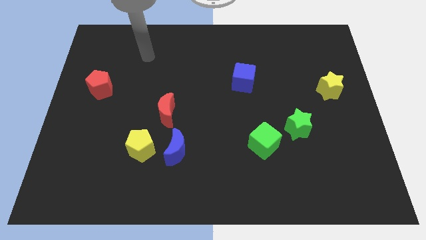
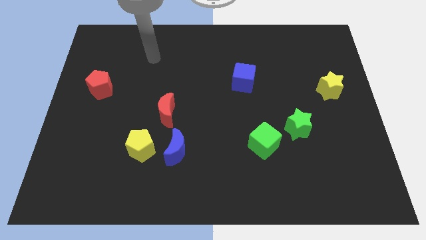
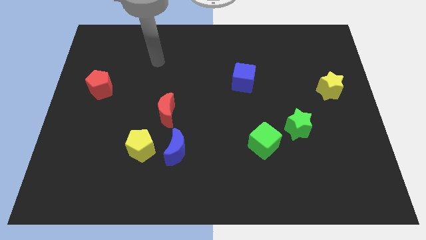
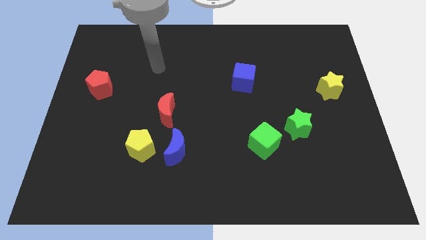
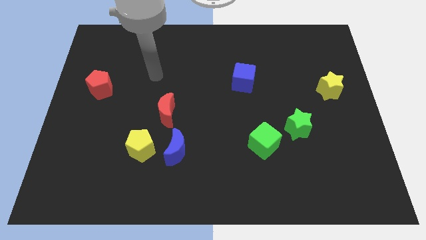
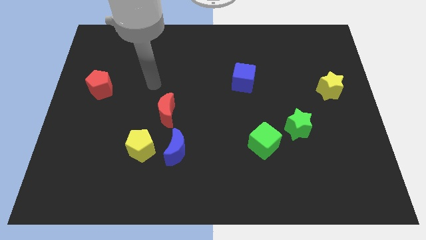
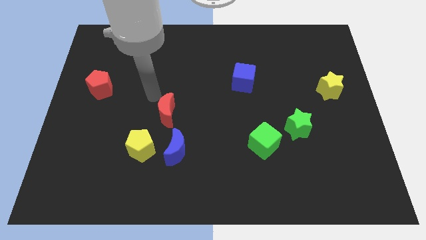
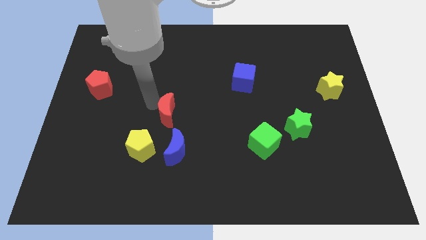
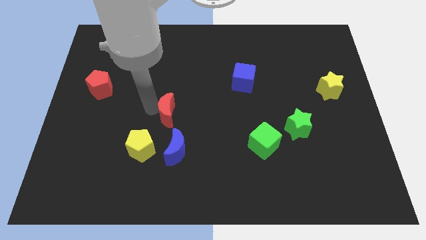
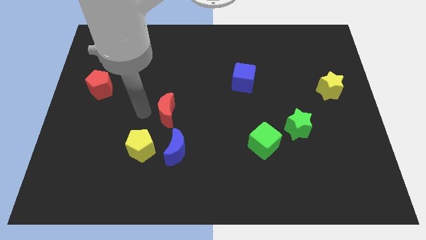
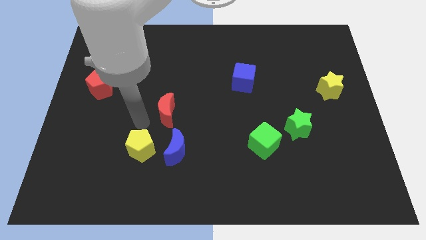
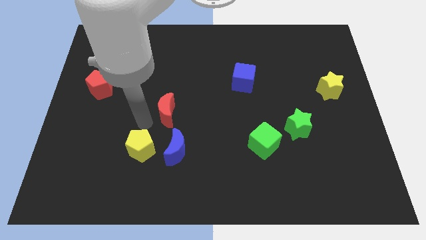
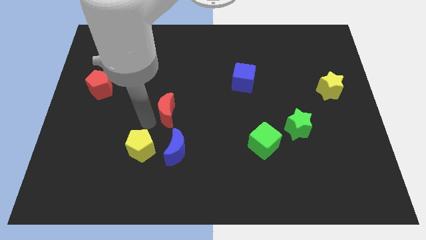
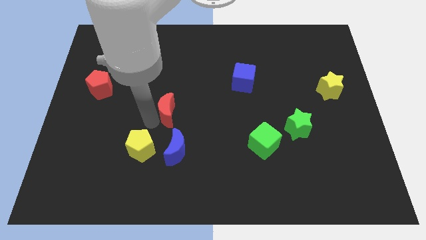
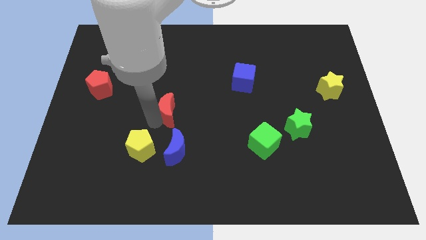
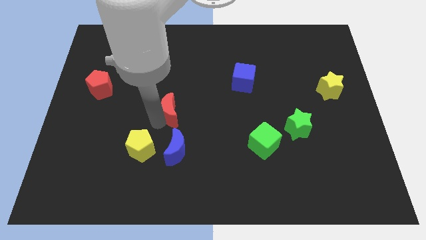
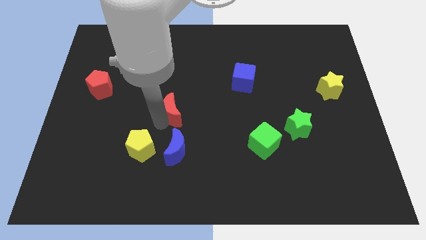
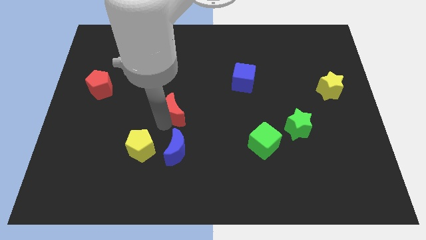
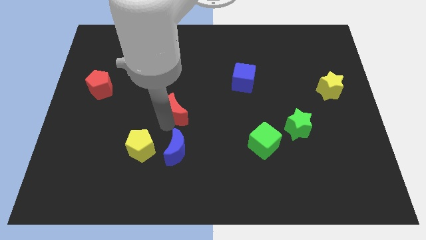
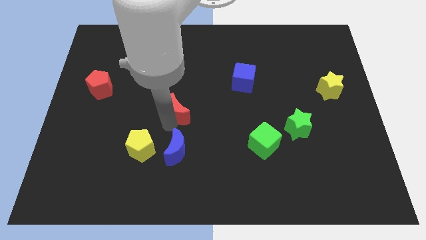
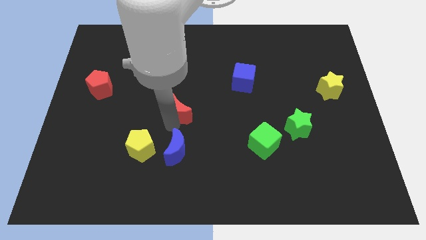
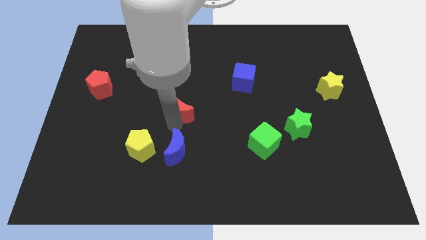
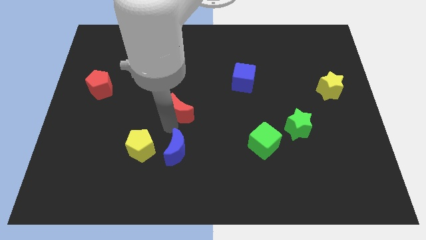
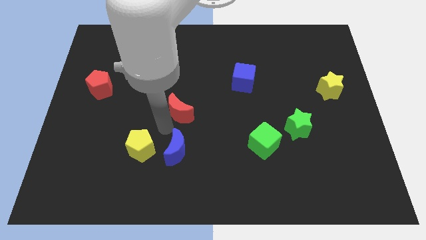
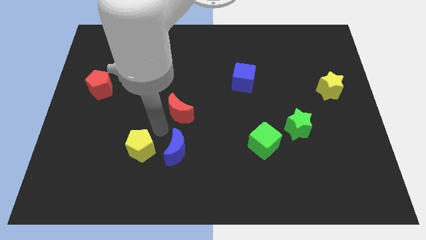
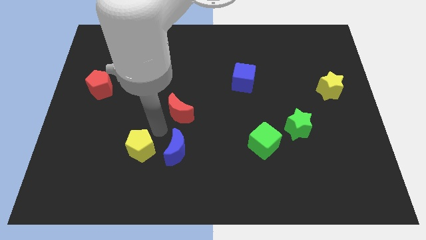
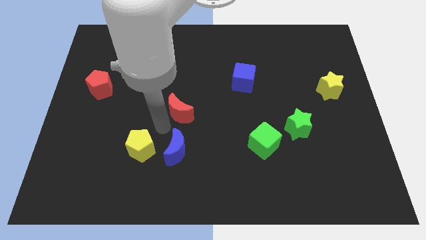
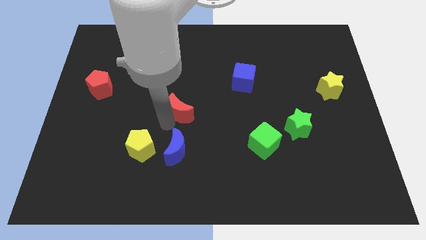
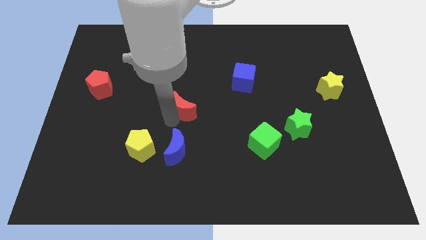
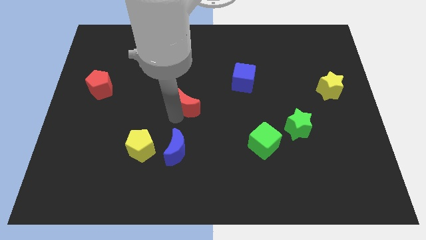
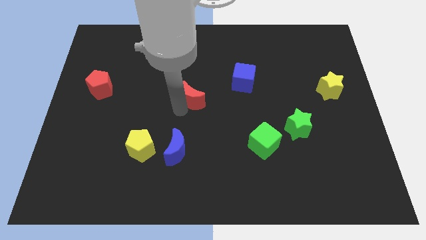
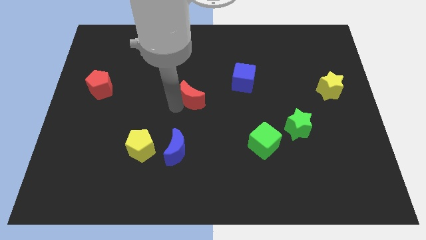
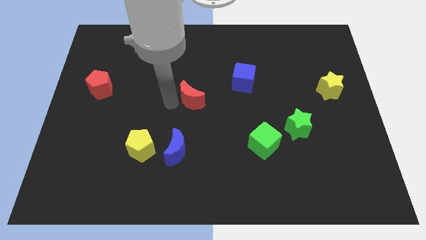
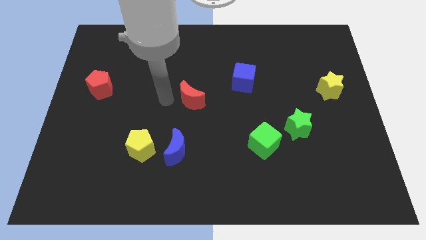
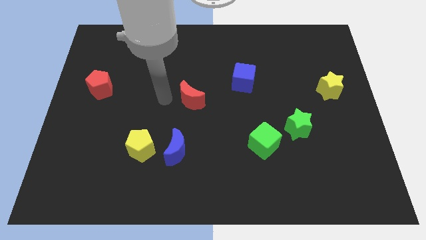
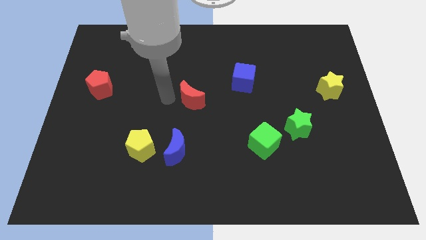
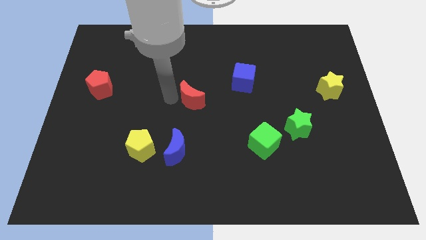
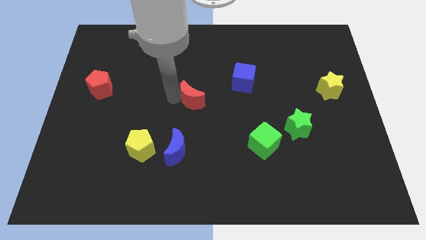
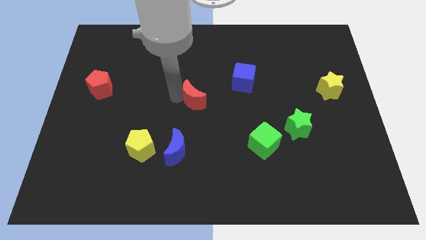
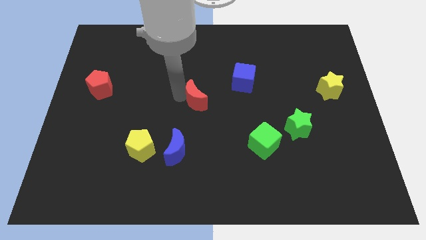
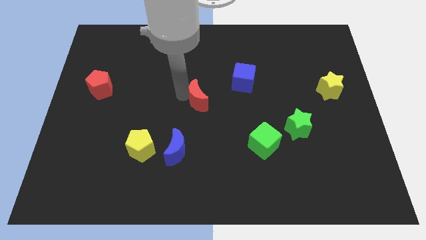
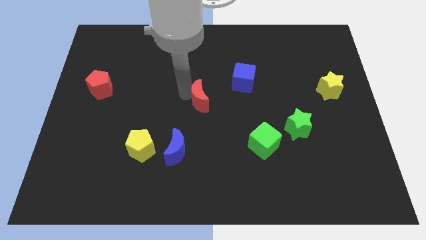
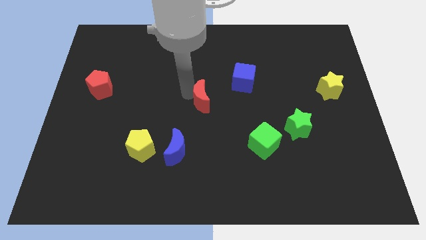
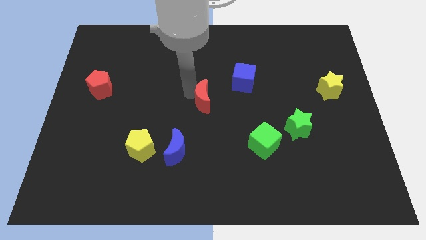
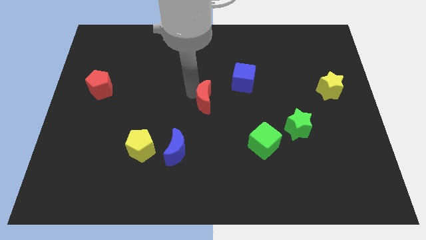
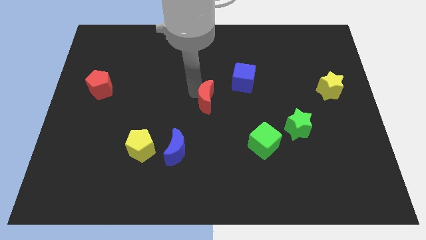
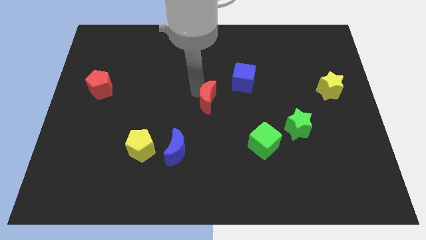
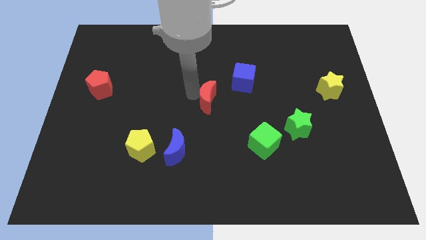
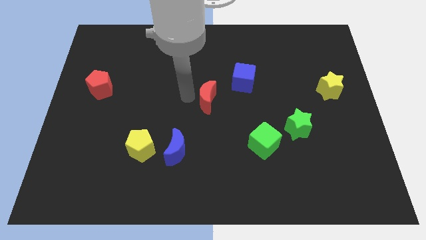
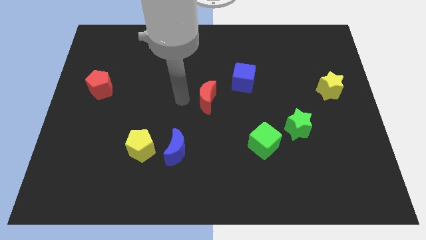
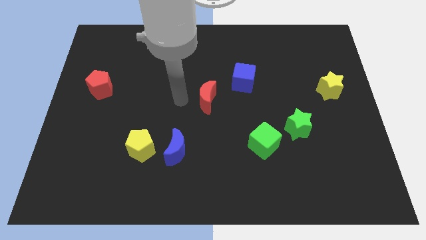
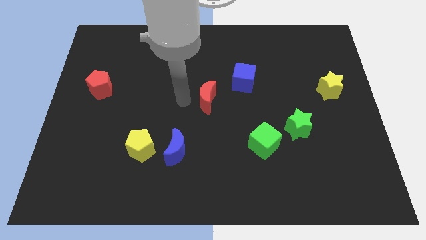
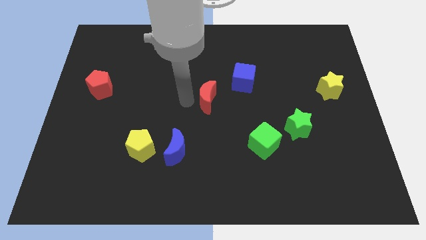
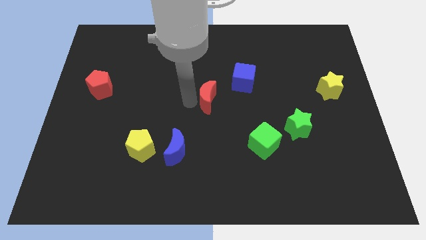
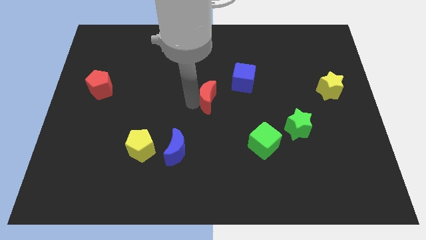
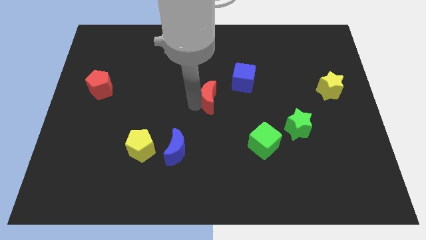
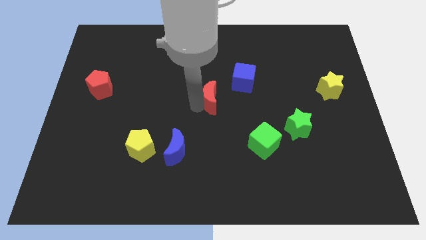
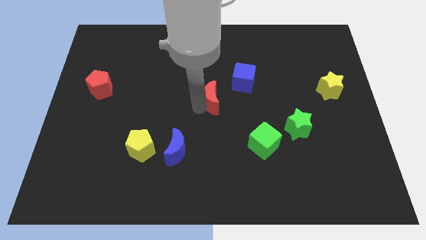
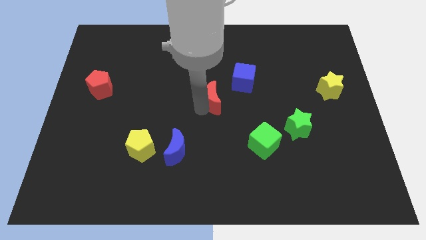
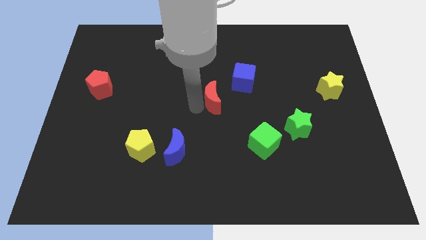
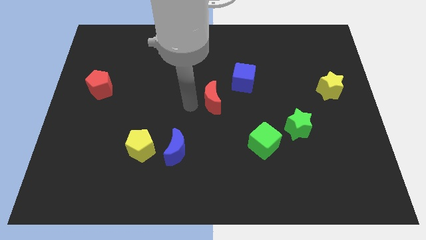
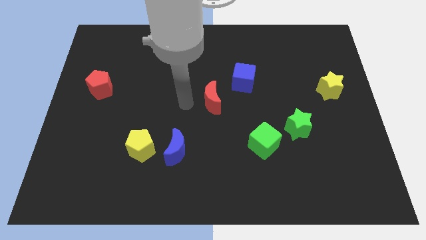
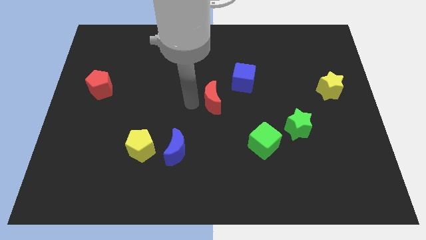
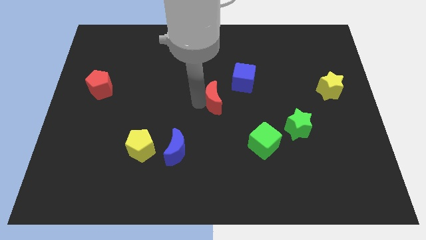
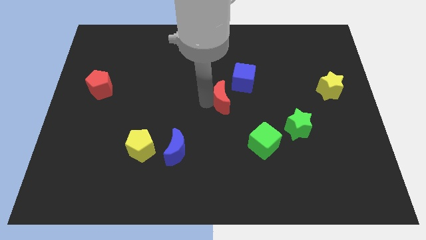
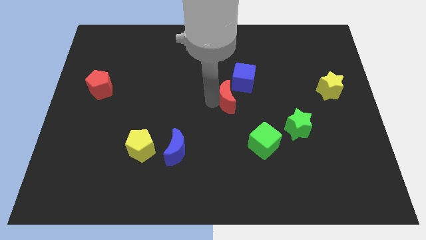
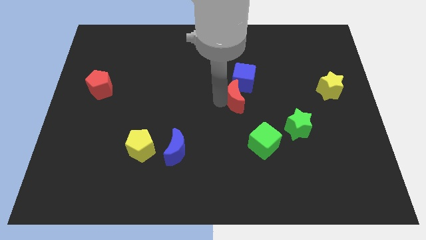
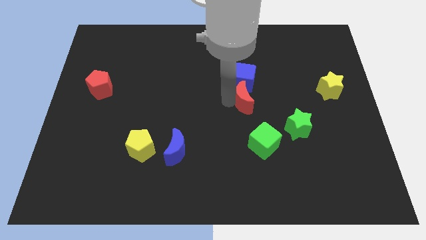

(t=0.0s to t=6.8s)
push the red moon to the bottom right side of the blue cube
